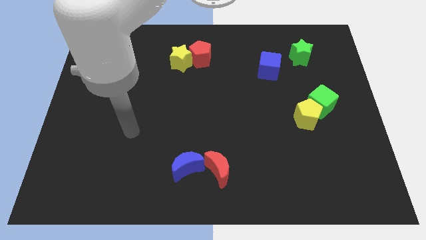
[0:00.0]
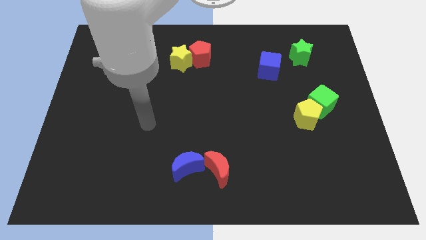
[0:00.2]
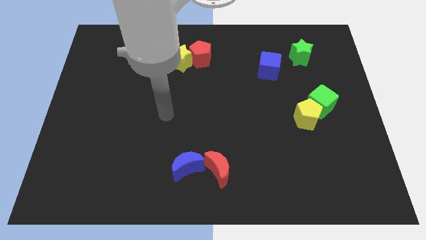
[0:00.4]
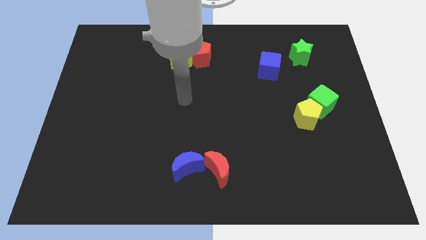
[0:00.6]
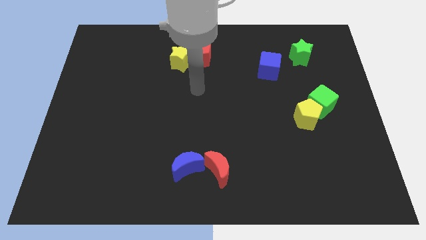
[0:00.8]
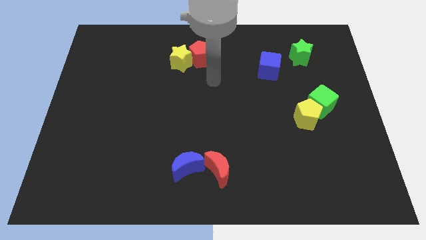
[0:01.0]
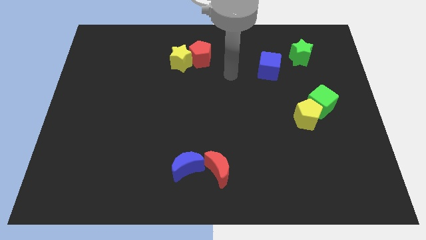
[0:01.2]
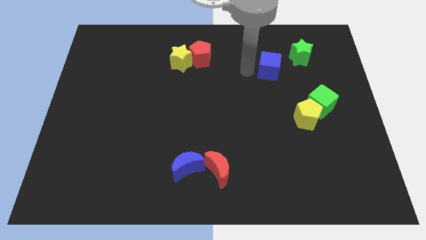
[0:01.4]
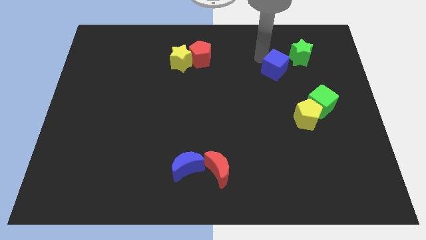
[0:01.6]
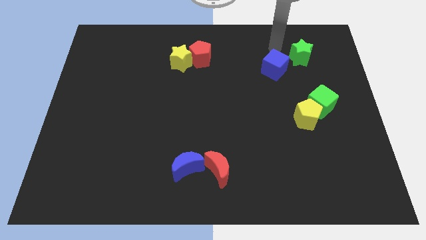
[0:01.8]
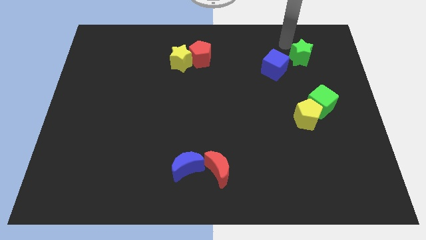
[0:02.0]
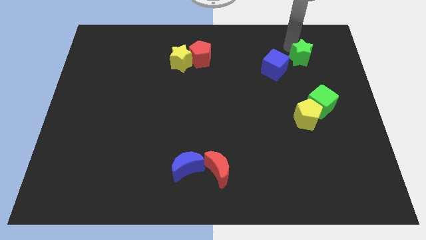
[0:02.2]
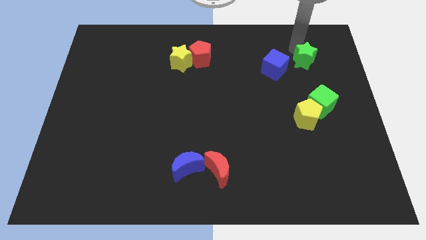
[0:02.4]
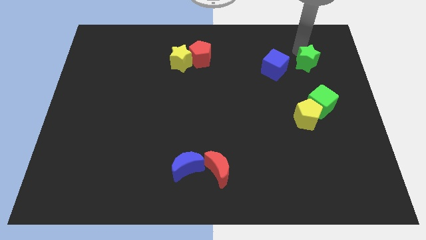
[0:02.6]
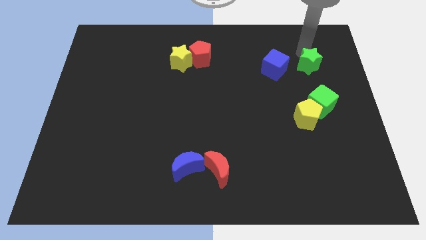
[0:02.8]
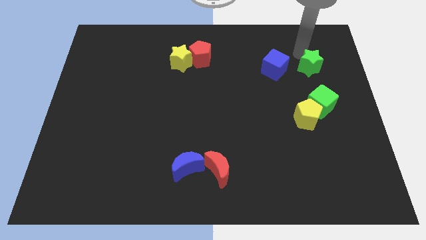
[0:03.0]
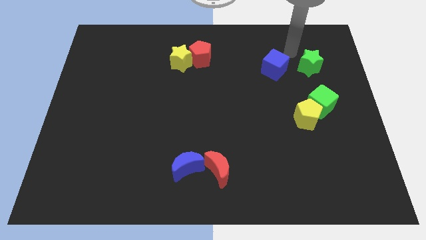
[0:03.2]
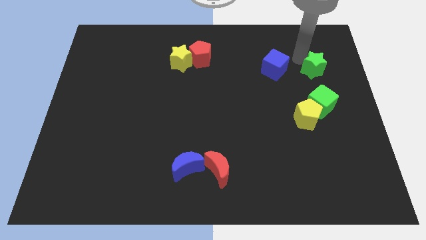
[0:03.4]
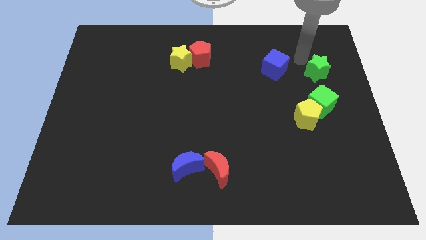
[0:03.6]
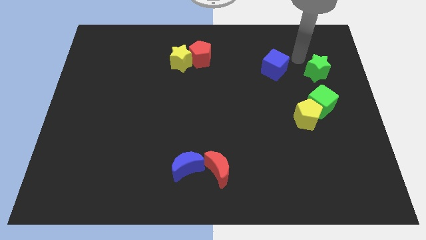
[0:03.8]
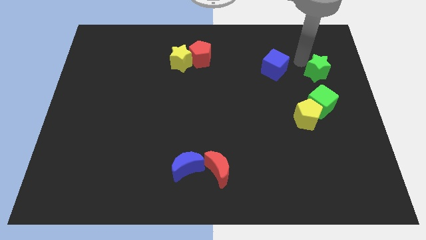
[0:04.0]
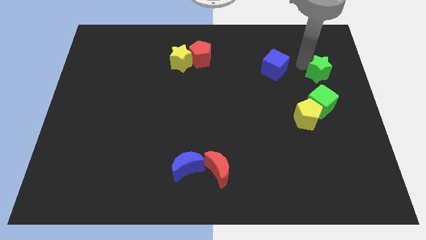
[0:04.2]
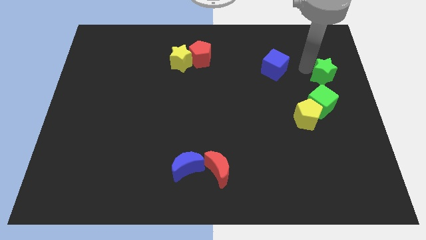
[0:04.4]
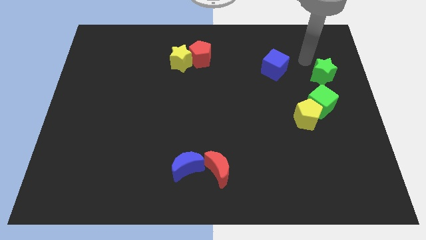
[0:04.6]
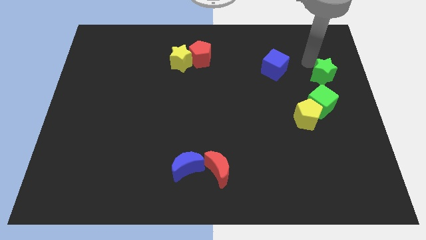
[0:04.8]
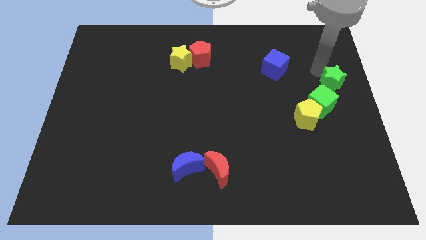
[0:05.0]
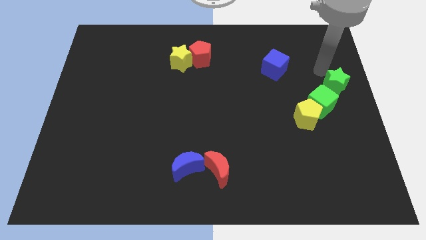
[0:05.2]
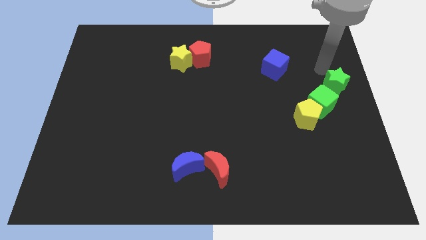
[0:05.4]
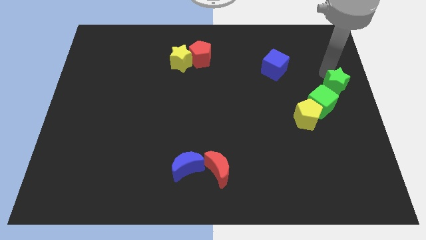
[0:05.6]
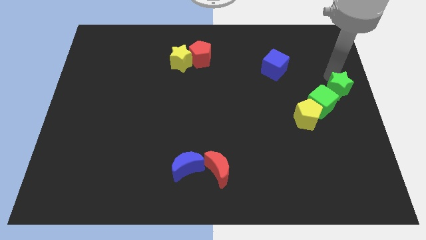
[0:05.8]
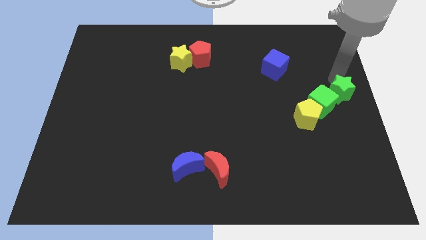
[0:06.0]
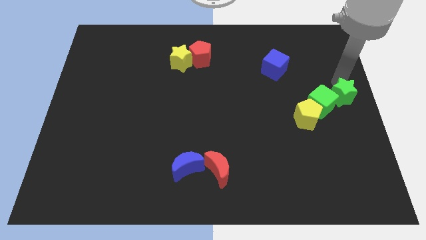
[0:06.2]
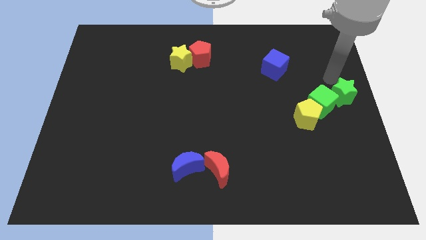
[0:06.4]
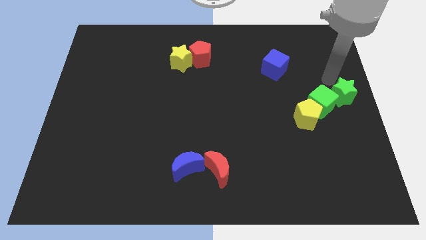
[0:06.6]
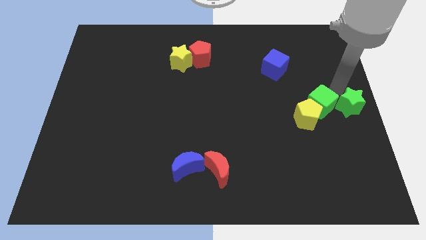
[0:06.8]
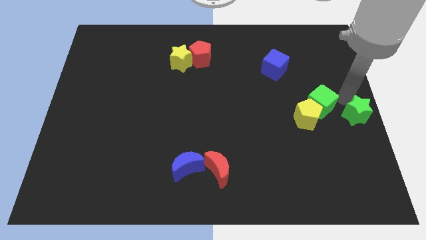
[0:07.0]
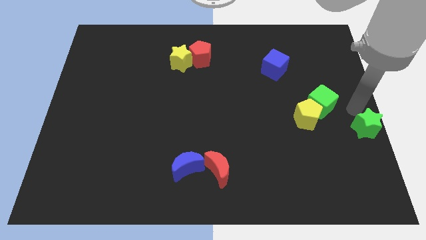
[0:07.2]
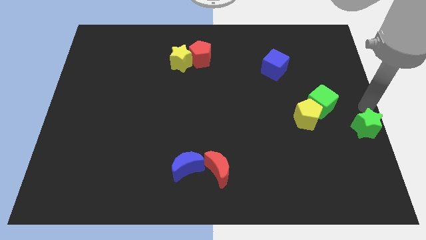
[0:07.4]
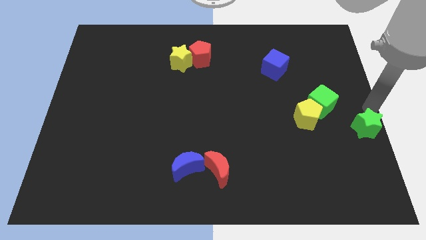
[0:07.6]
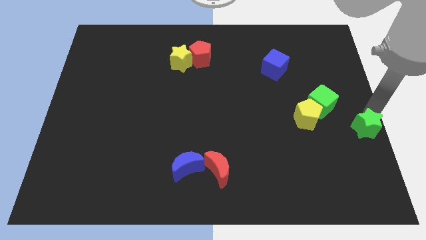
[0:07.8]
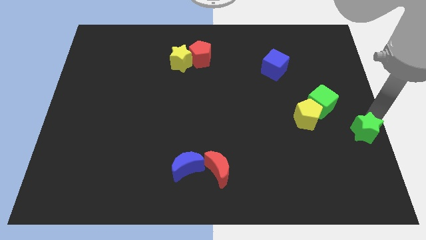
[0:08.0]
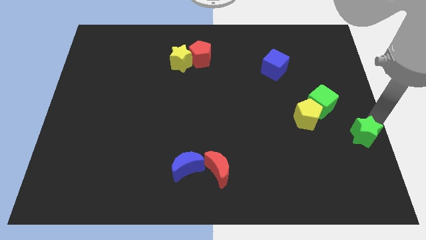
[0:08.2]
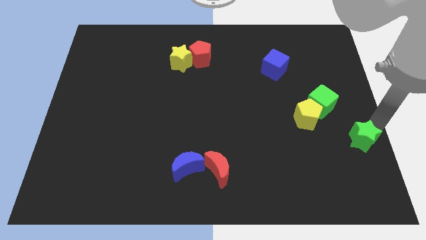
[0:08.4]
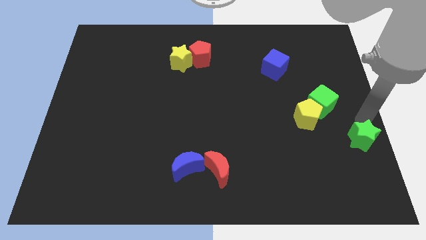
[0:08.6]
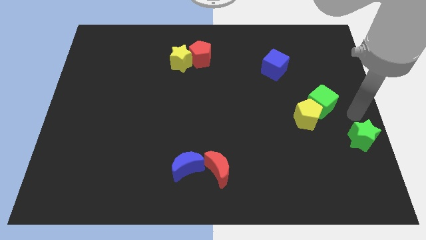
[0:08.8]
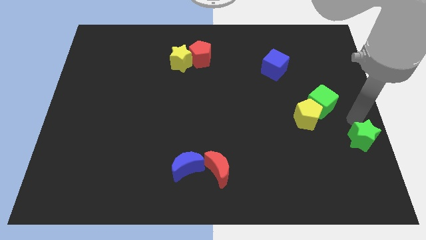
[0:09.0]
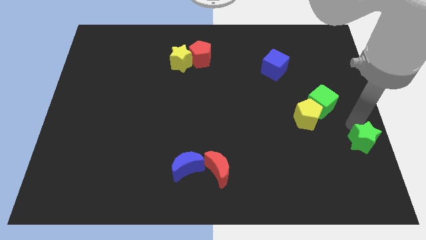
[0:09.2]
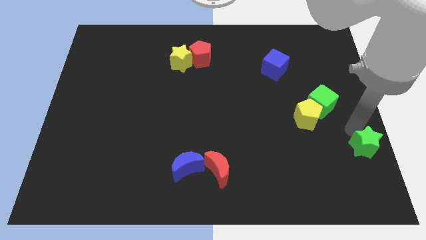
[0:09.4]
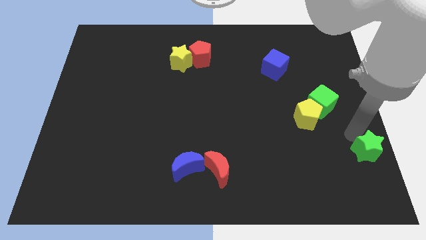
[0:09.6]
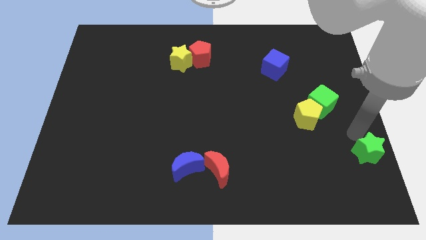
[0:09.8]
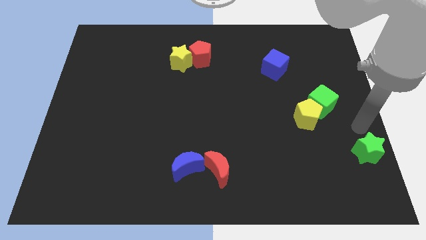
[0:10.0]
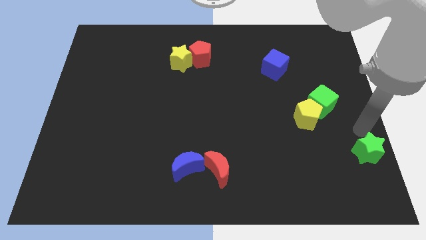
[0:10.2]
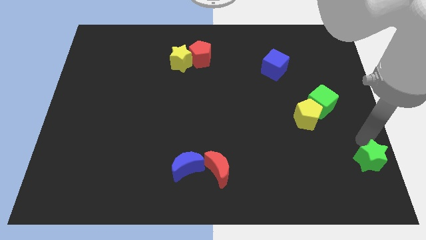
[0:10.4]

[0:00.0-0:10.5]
put the green star to the lower right corner

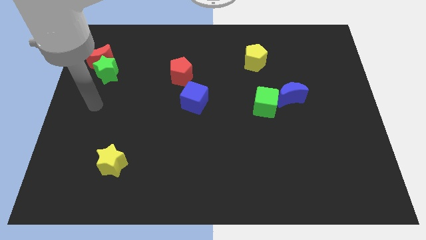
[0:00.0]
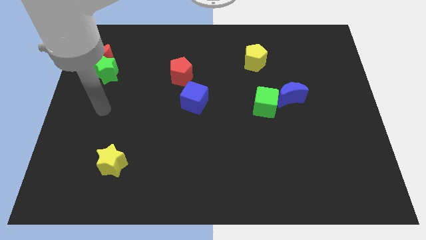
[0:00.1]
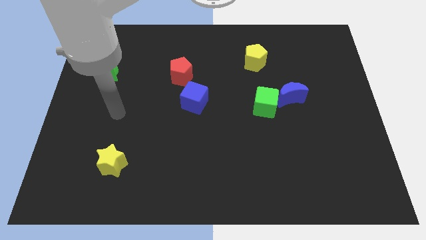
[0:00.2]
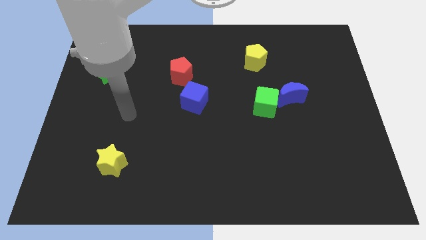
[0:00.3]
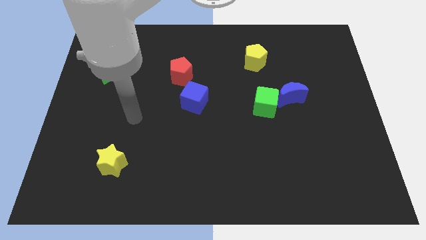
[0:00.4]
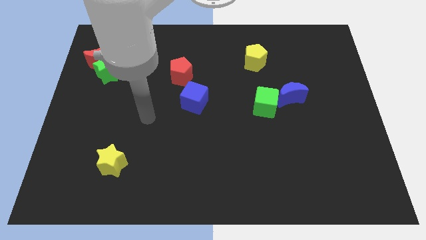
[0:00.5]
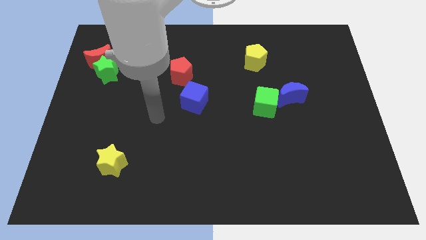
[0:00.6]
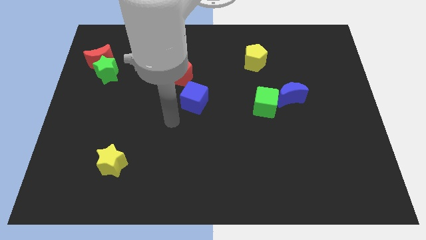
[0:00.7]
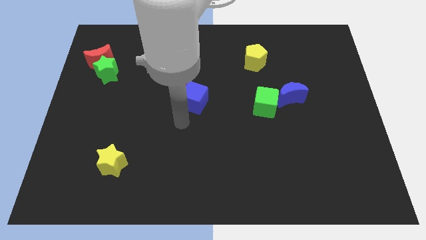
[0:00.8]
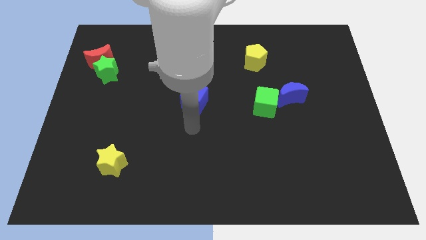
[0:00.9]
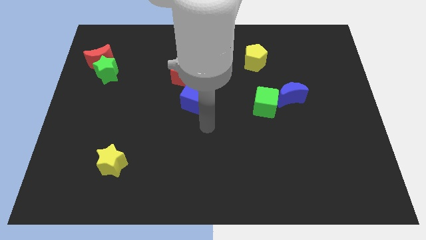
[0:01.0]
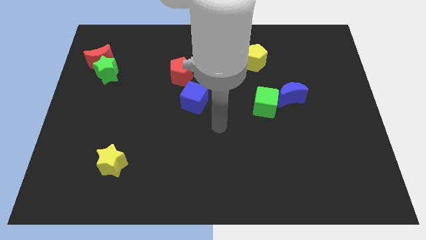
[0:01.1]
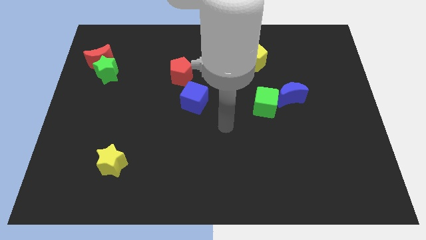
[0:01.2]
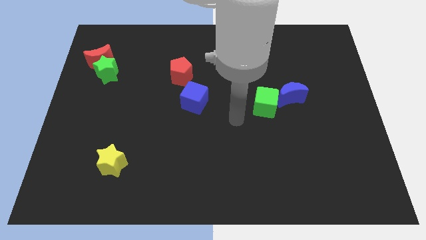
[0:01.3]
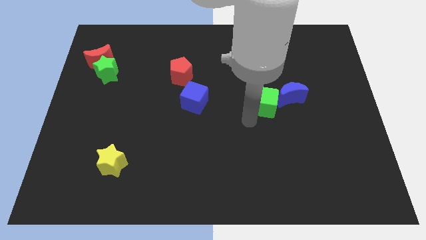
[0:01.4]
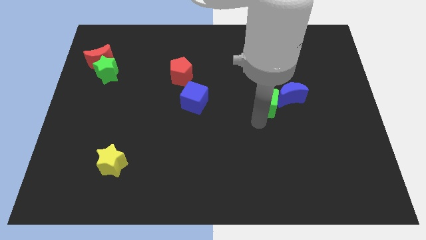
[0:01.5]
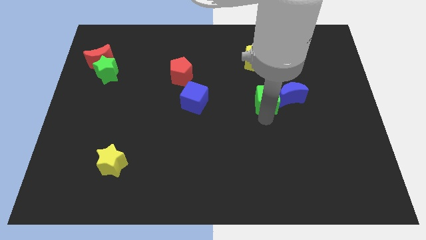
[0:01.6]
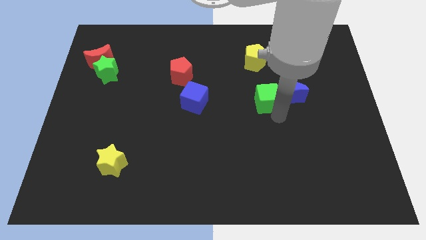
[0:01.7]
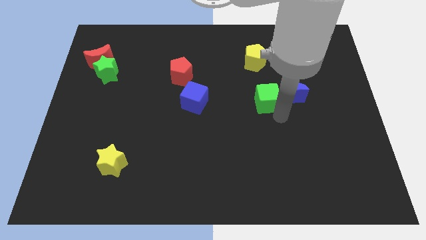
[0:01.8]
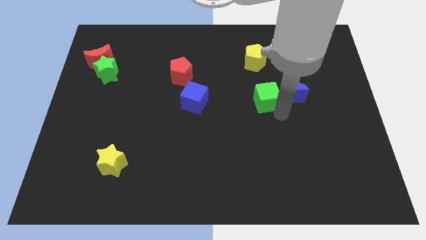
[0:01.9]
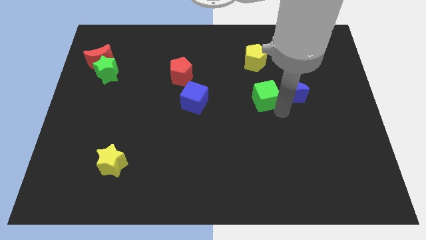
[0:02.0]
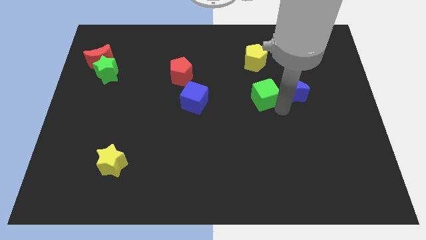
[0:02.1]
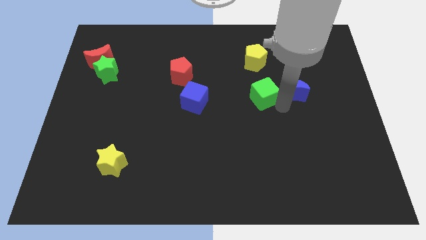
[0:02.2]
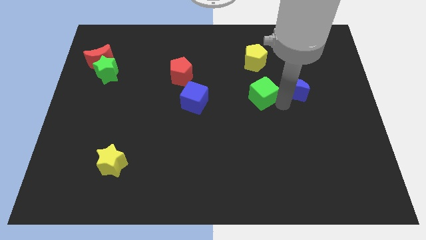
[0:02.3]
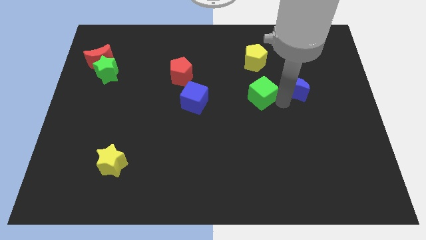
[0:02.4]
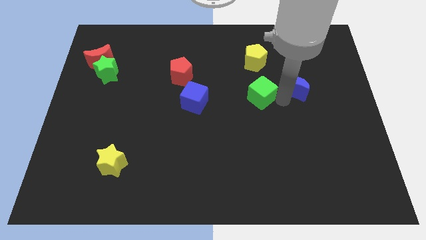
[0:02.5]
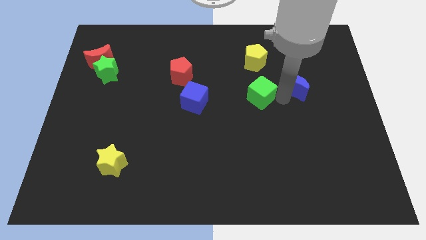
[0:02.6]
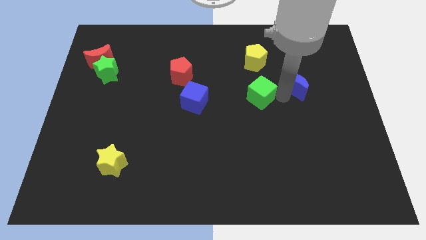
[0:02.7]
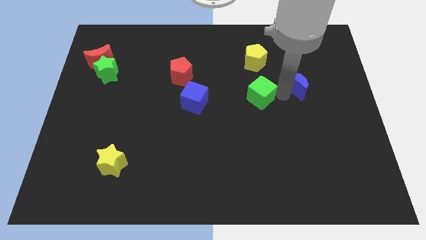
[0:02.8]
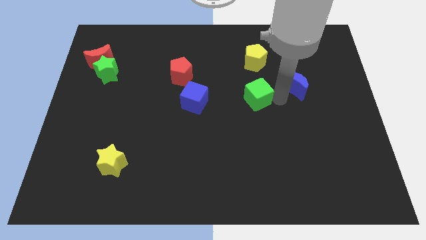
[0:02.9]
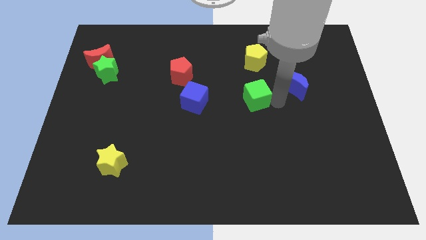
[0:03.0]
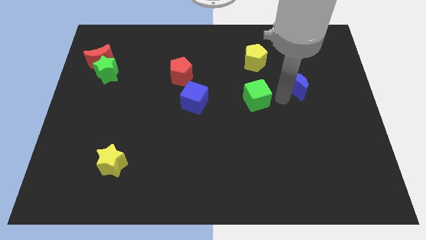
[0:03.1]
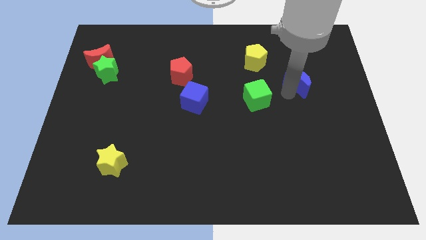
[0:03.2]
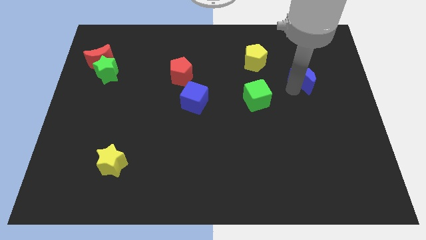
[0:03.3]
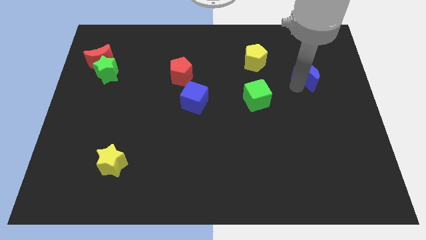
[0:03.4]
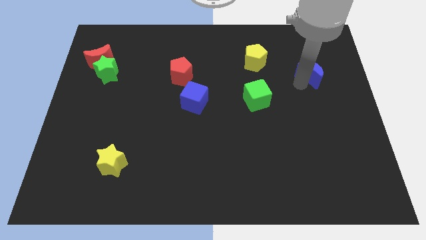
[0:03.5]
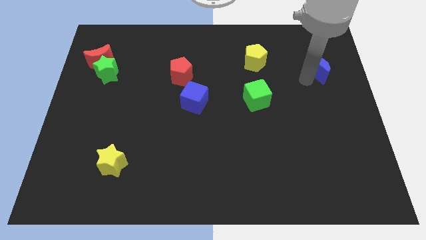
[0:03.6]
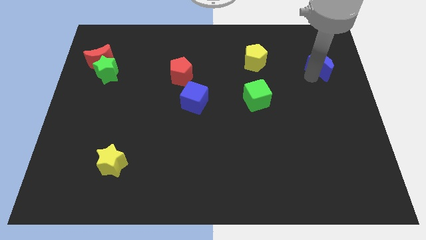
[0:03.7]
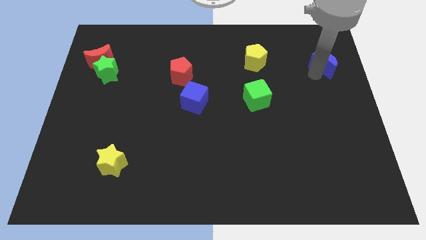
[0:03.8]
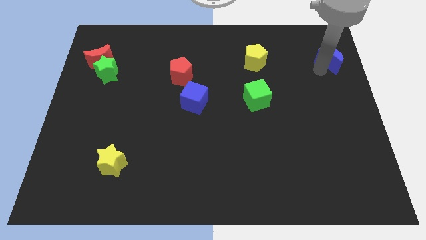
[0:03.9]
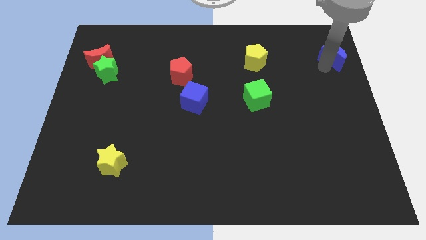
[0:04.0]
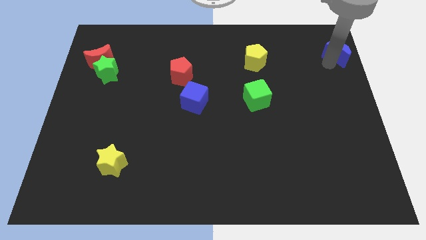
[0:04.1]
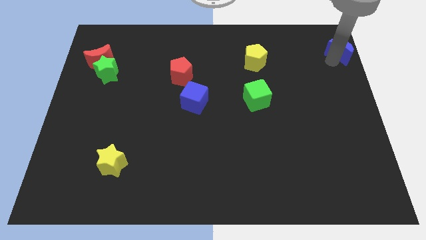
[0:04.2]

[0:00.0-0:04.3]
put the blue moon to the top right corner
